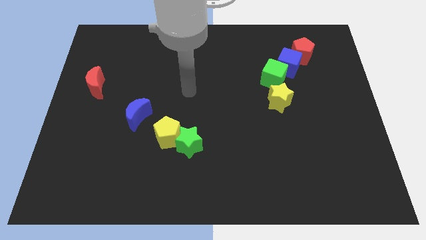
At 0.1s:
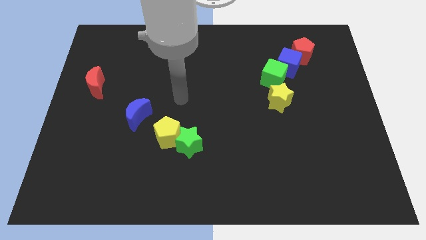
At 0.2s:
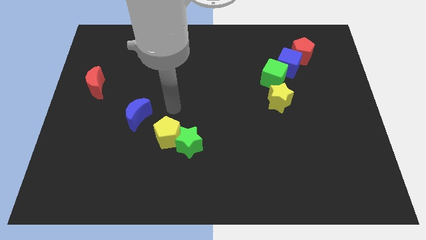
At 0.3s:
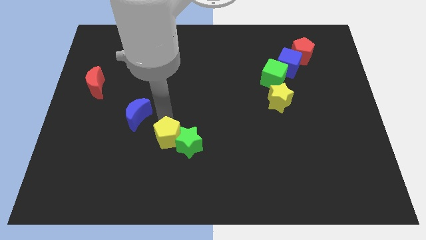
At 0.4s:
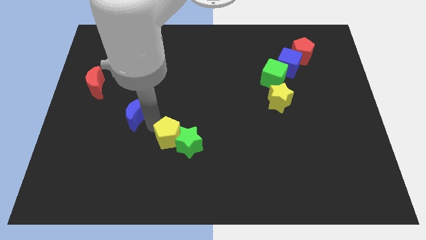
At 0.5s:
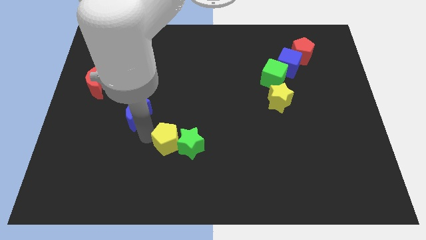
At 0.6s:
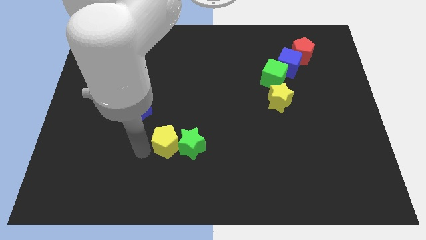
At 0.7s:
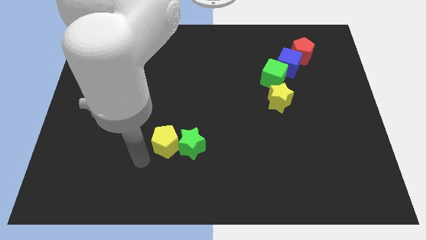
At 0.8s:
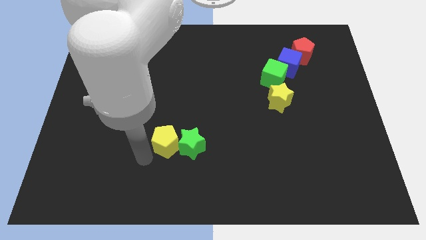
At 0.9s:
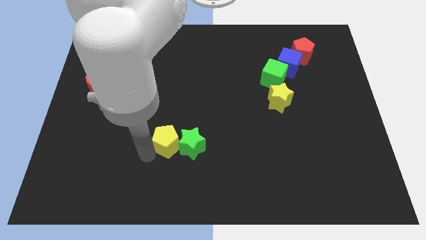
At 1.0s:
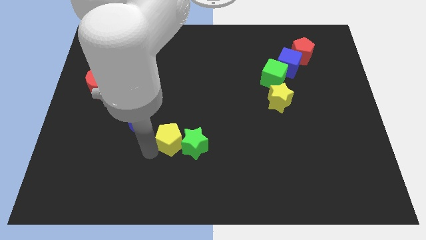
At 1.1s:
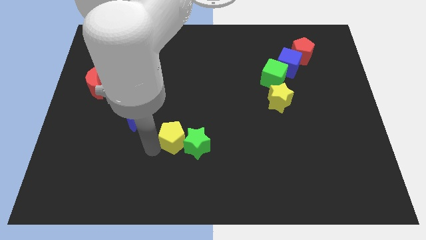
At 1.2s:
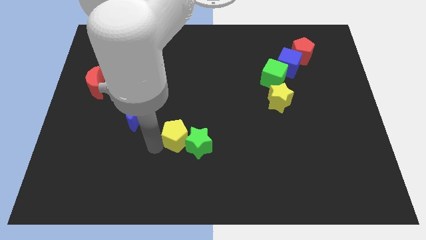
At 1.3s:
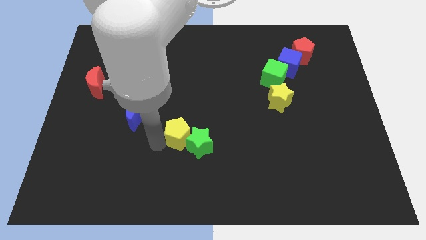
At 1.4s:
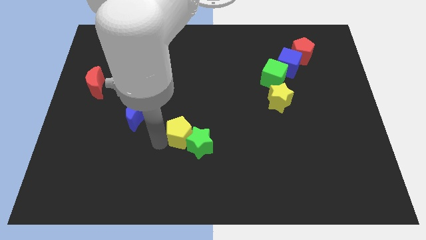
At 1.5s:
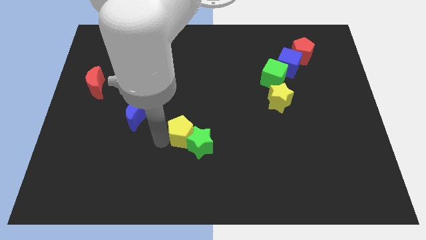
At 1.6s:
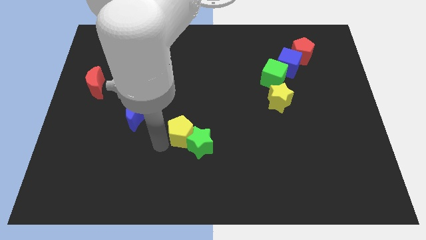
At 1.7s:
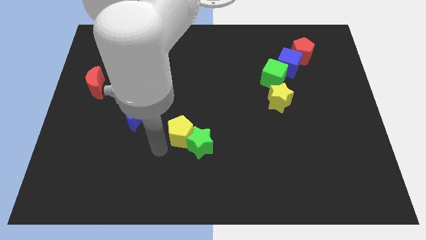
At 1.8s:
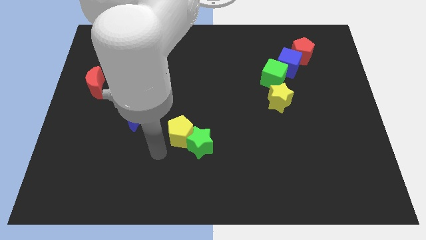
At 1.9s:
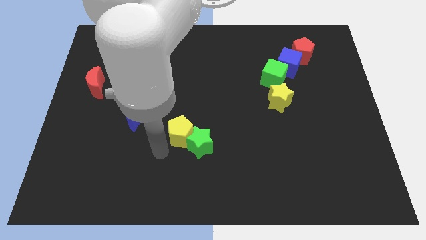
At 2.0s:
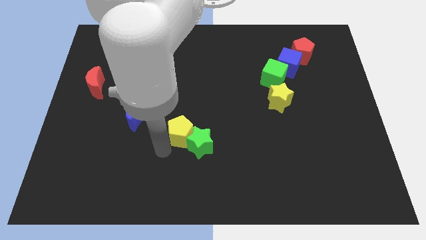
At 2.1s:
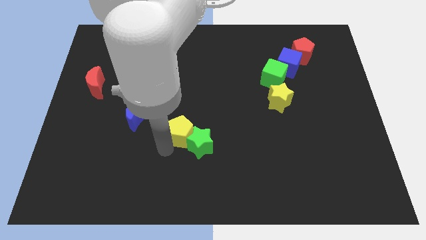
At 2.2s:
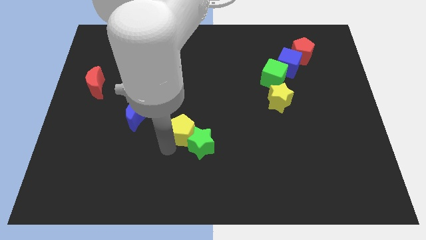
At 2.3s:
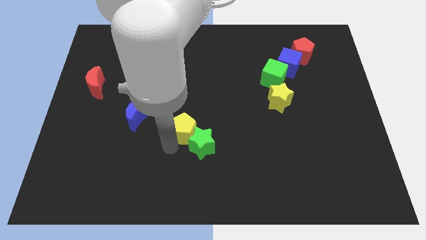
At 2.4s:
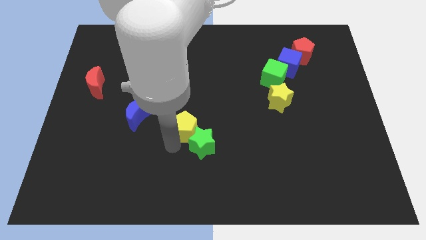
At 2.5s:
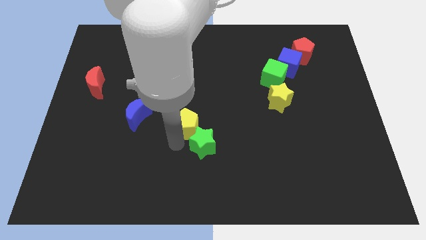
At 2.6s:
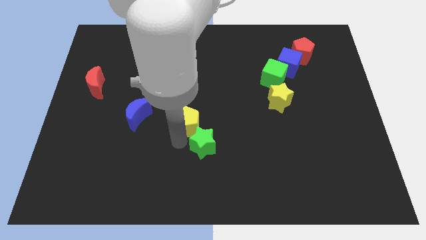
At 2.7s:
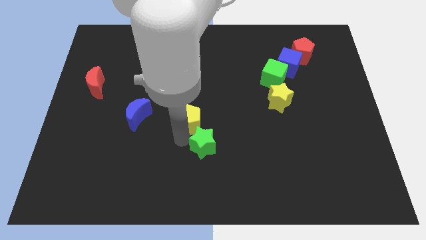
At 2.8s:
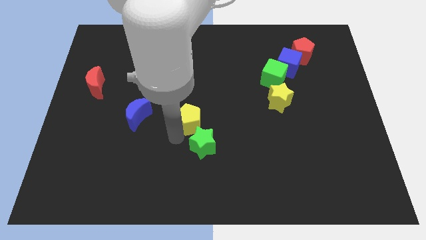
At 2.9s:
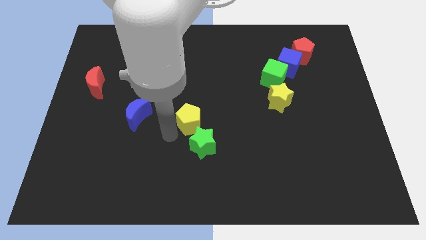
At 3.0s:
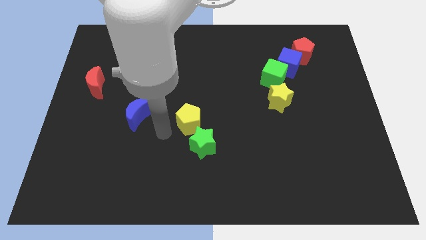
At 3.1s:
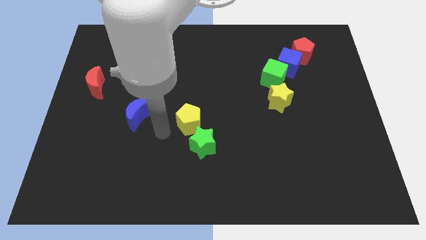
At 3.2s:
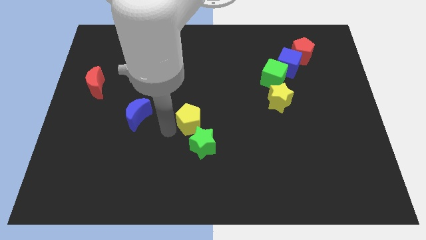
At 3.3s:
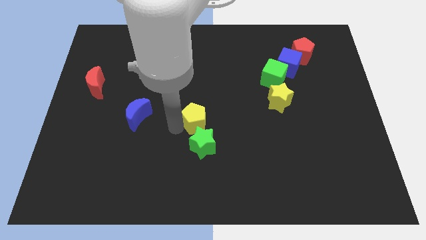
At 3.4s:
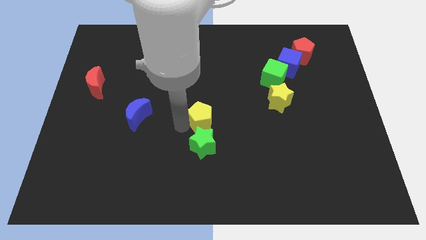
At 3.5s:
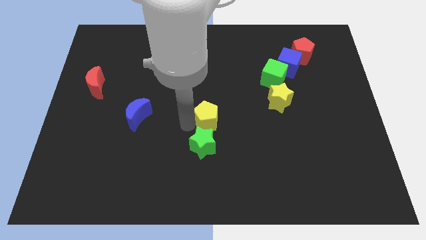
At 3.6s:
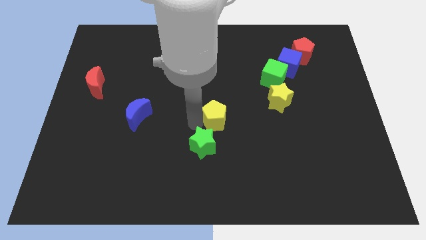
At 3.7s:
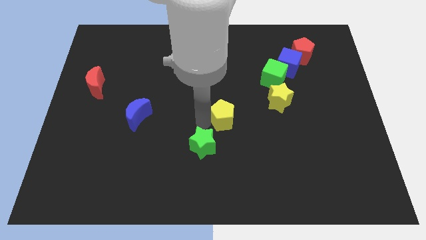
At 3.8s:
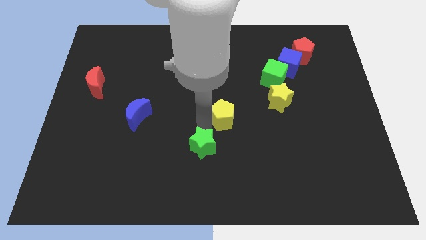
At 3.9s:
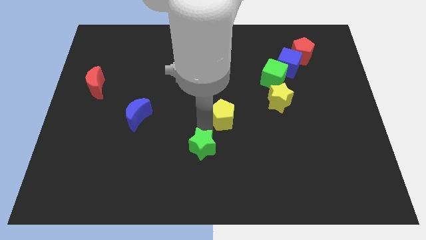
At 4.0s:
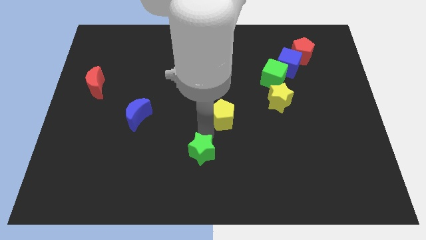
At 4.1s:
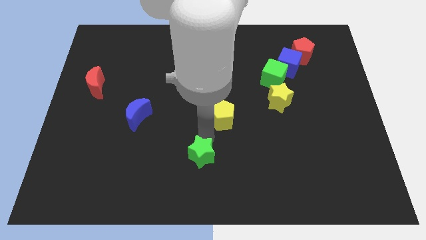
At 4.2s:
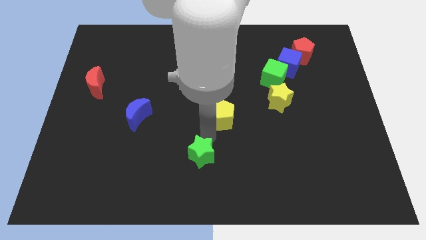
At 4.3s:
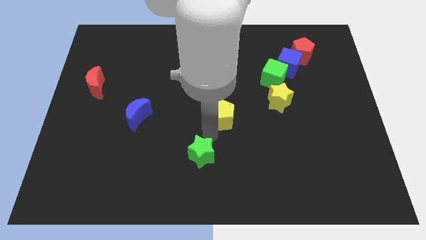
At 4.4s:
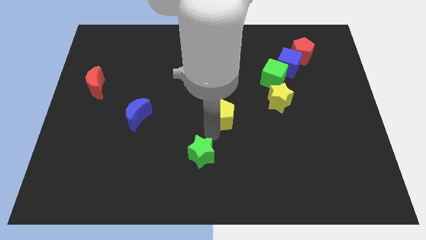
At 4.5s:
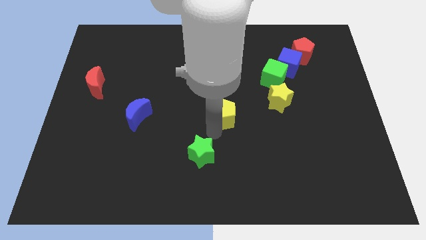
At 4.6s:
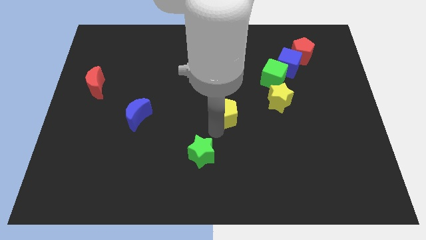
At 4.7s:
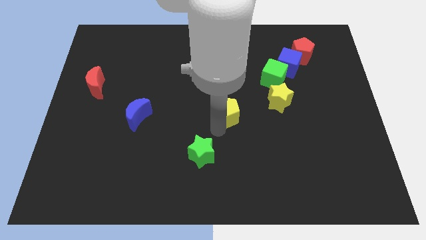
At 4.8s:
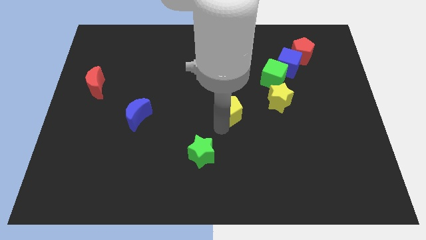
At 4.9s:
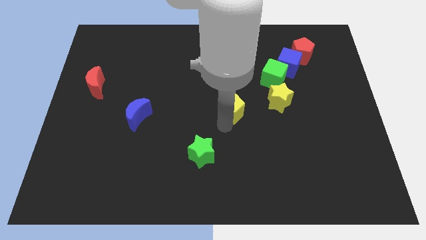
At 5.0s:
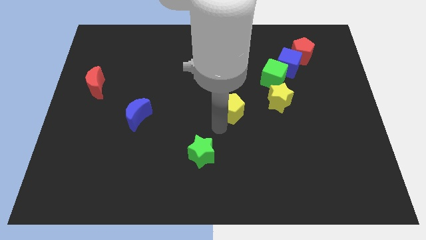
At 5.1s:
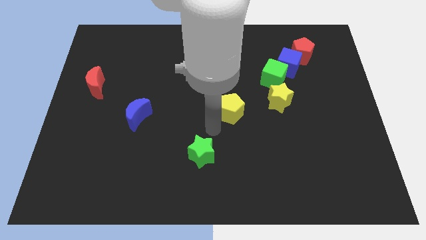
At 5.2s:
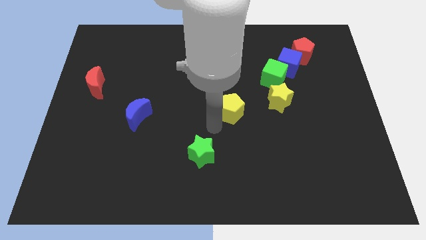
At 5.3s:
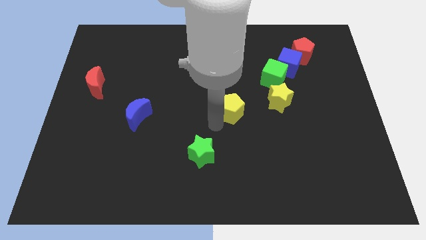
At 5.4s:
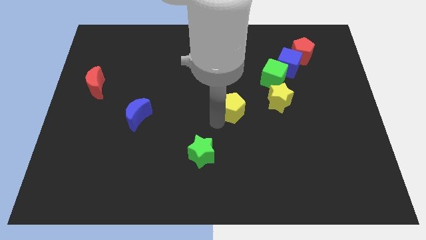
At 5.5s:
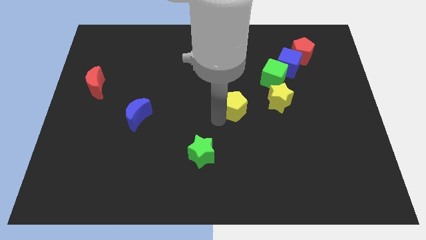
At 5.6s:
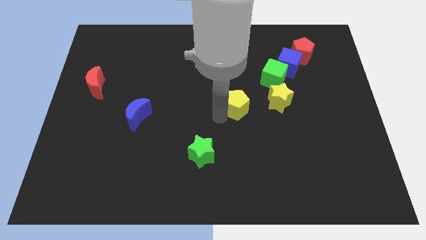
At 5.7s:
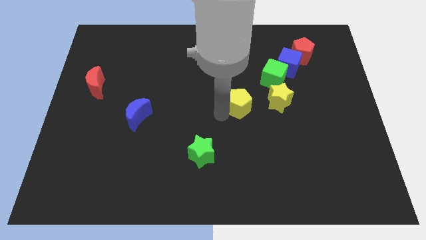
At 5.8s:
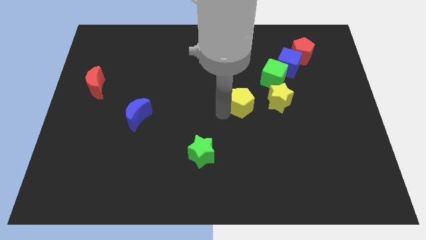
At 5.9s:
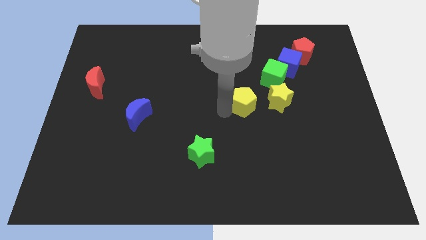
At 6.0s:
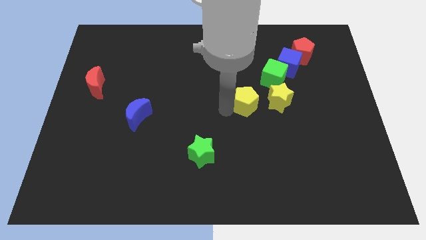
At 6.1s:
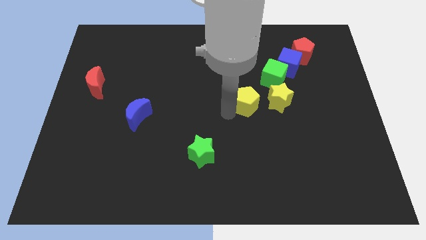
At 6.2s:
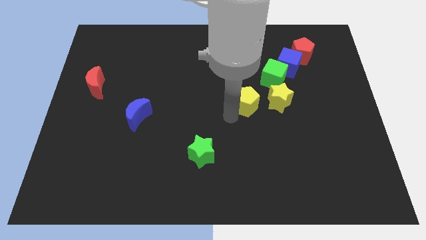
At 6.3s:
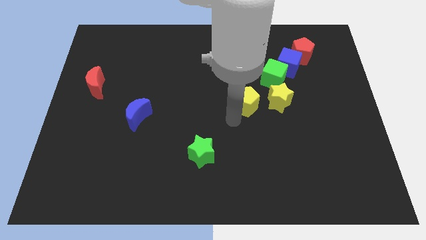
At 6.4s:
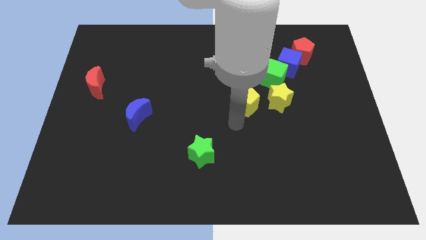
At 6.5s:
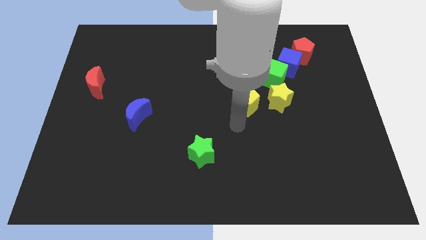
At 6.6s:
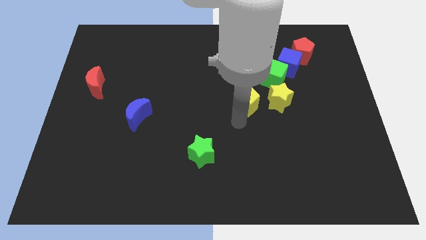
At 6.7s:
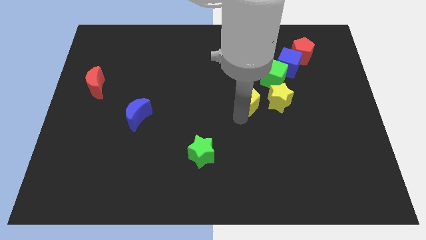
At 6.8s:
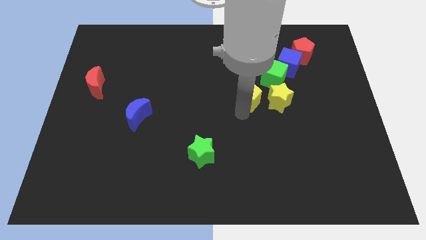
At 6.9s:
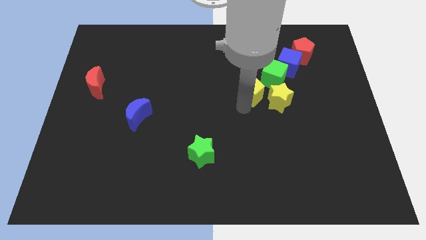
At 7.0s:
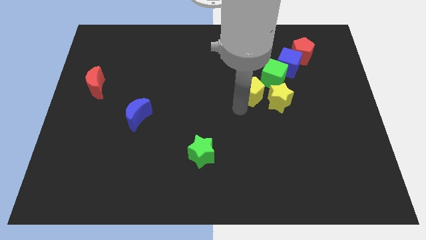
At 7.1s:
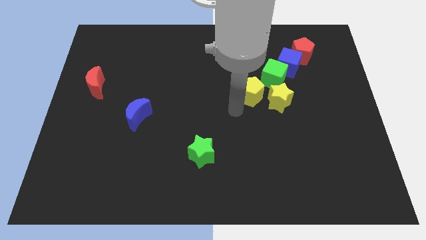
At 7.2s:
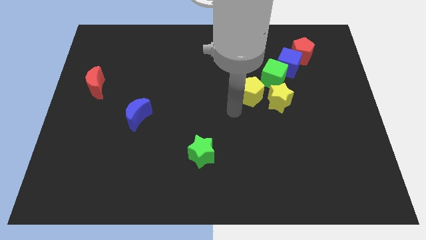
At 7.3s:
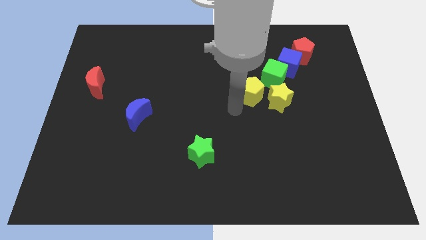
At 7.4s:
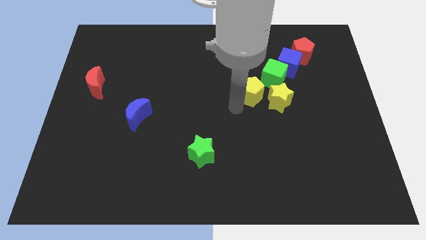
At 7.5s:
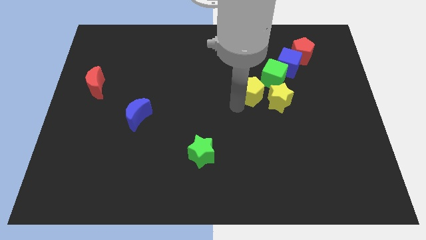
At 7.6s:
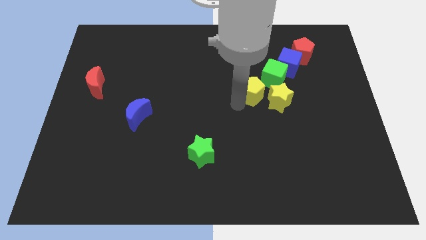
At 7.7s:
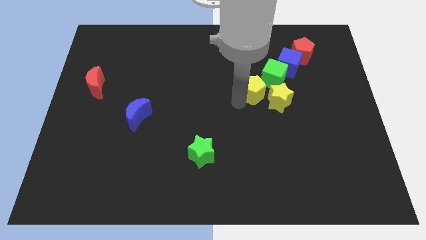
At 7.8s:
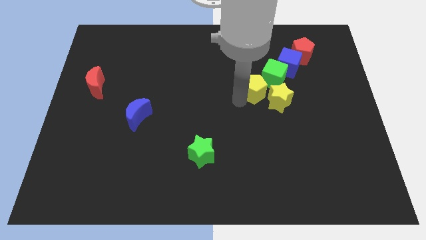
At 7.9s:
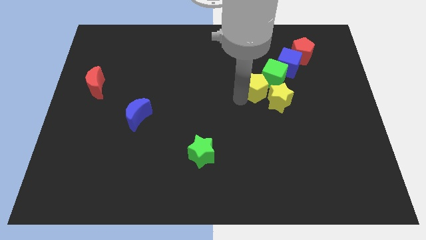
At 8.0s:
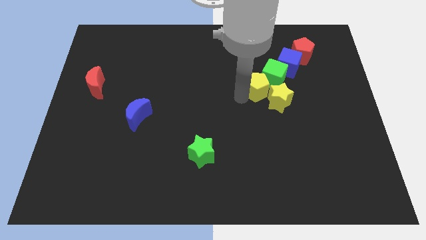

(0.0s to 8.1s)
put the yellow pentagon next to the green cube
